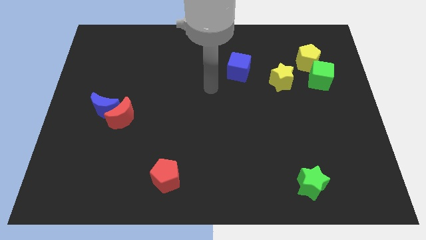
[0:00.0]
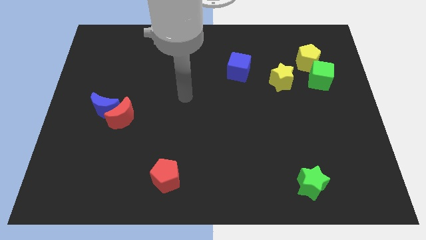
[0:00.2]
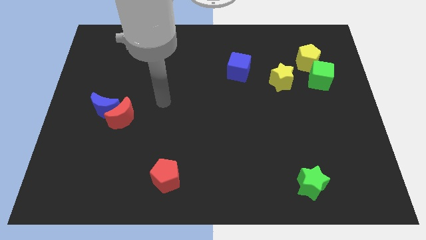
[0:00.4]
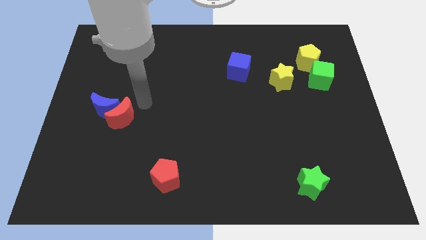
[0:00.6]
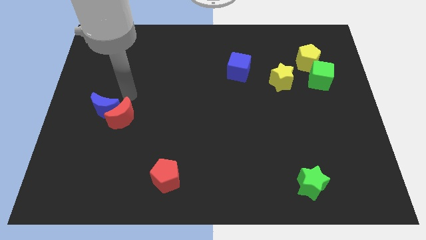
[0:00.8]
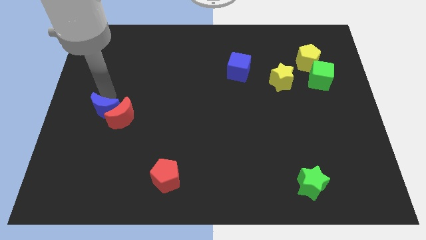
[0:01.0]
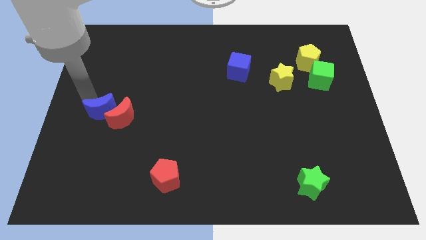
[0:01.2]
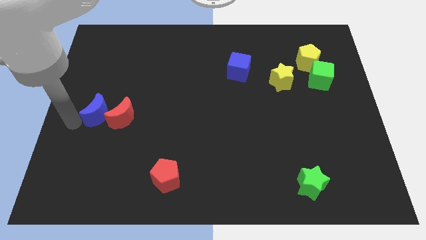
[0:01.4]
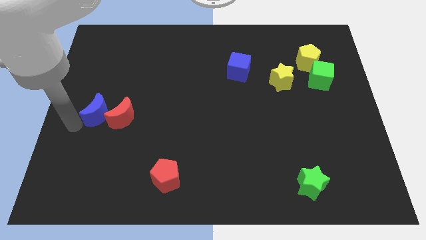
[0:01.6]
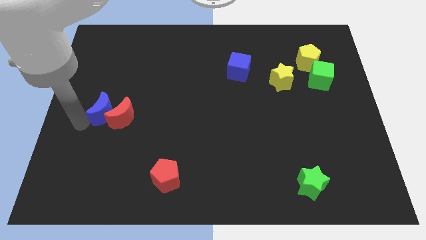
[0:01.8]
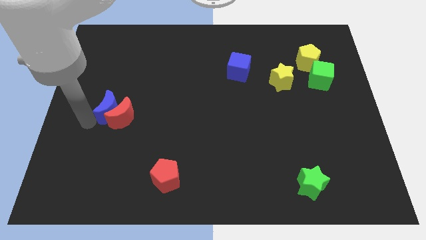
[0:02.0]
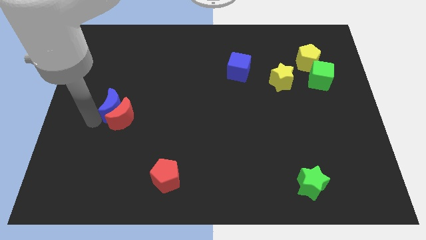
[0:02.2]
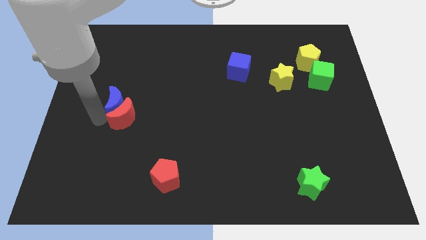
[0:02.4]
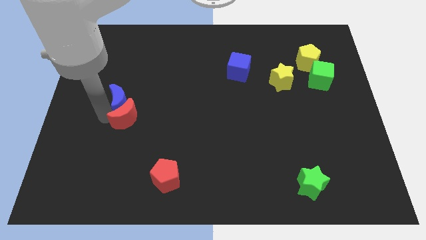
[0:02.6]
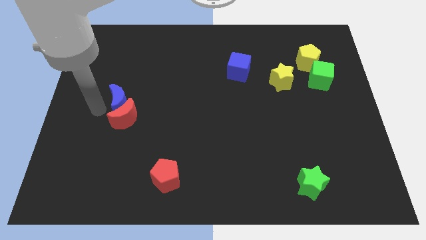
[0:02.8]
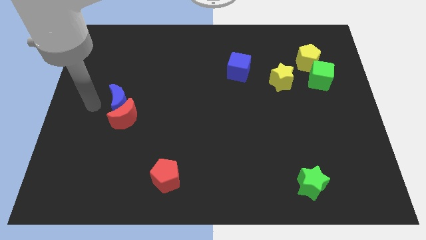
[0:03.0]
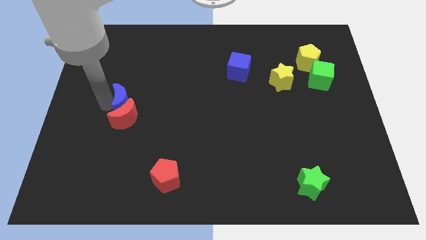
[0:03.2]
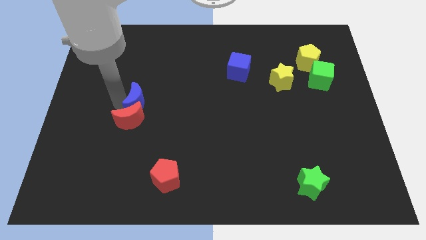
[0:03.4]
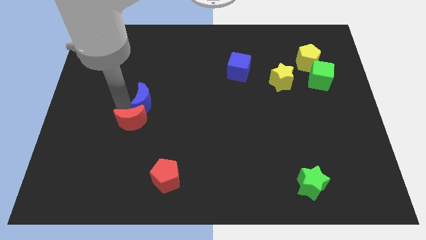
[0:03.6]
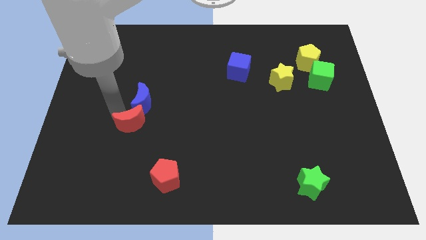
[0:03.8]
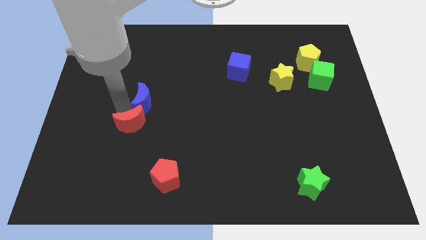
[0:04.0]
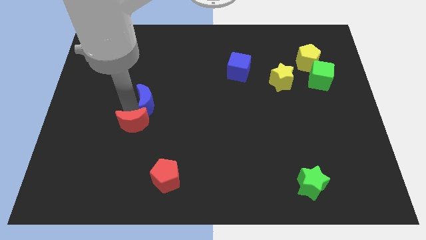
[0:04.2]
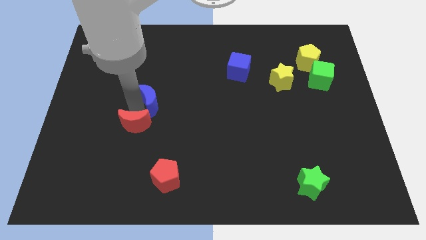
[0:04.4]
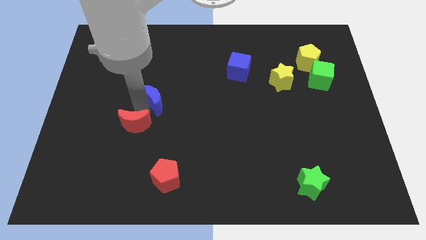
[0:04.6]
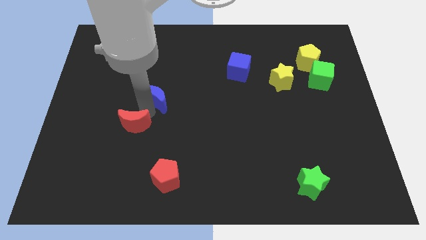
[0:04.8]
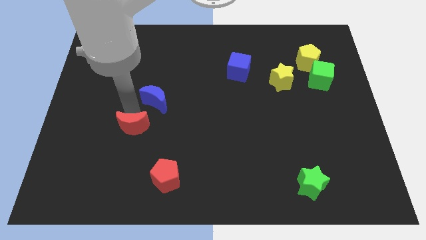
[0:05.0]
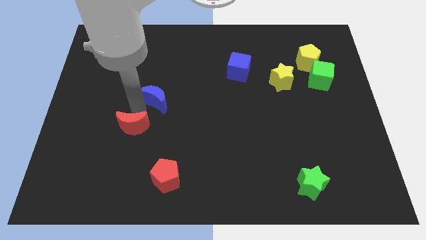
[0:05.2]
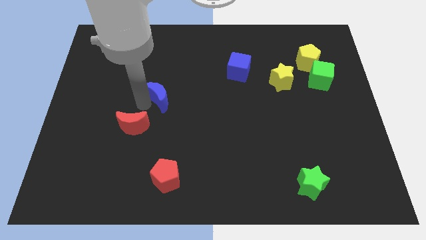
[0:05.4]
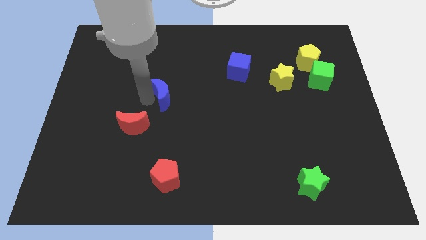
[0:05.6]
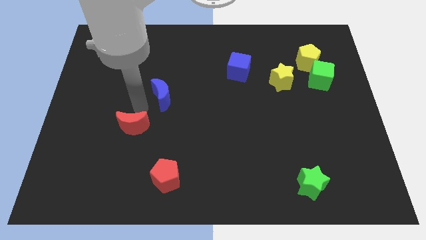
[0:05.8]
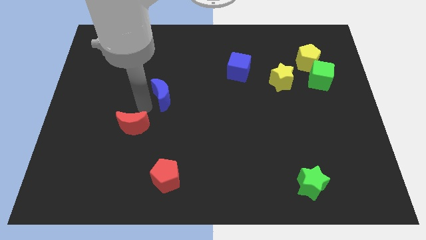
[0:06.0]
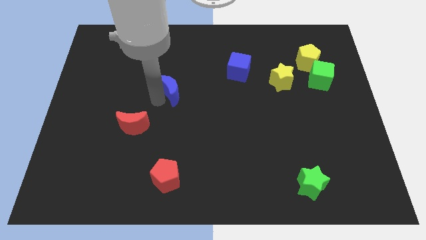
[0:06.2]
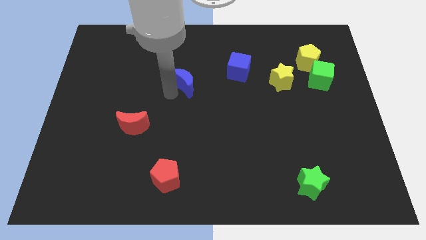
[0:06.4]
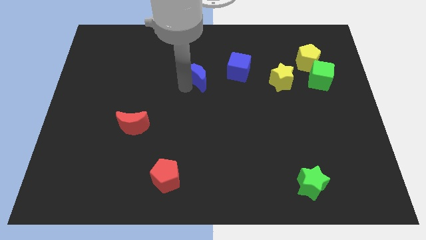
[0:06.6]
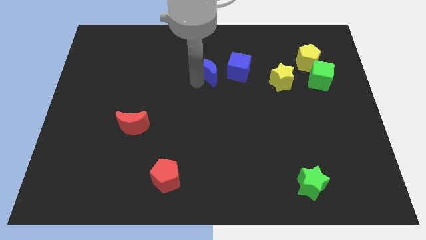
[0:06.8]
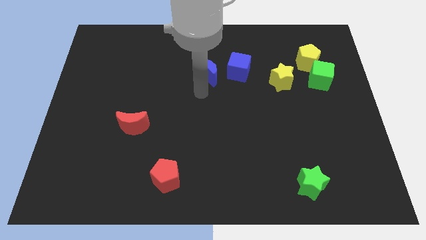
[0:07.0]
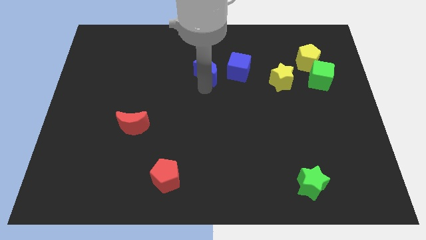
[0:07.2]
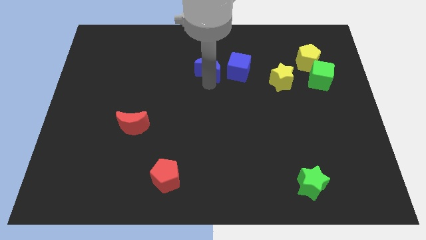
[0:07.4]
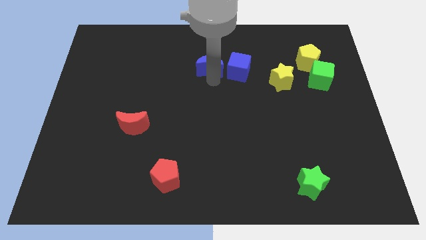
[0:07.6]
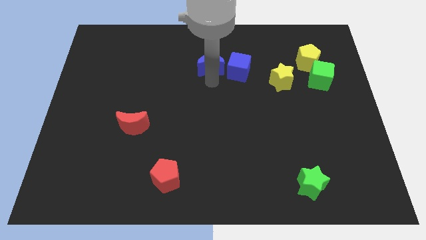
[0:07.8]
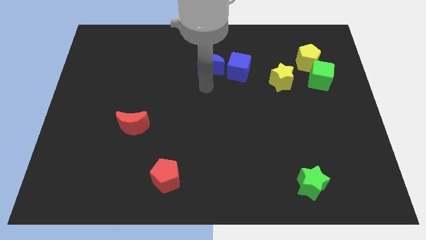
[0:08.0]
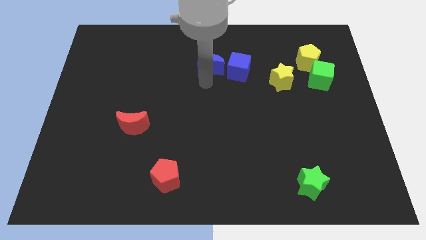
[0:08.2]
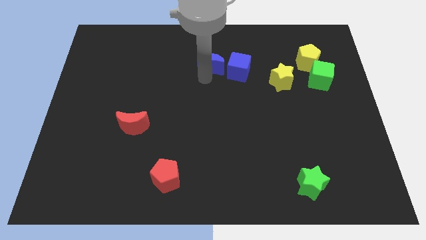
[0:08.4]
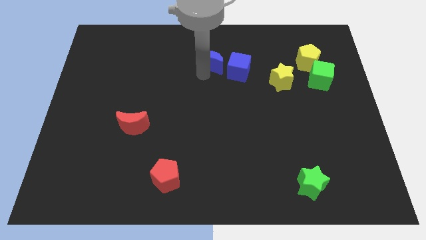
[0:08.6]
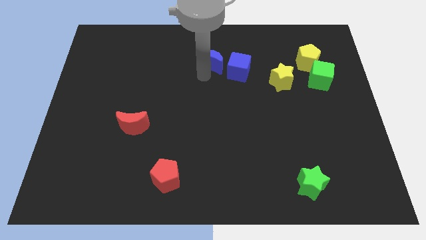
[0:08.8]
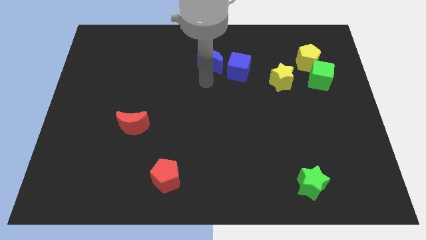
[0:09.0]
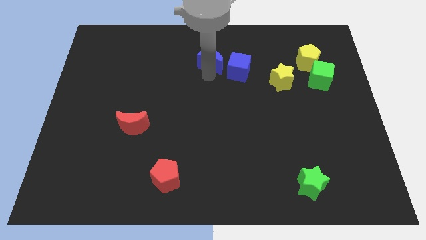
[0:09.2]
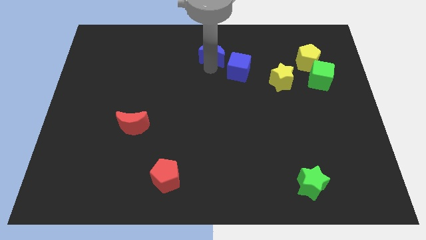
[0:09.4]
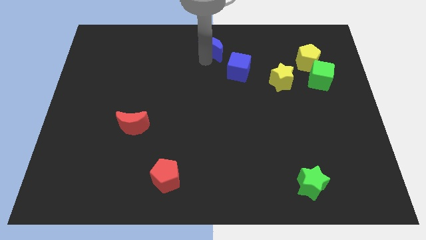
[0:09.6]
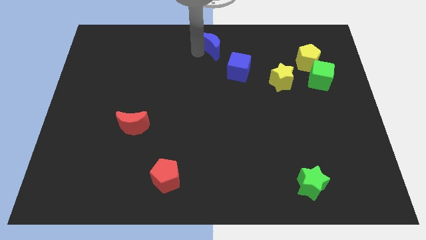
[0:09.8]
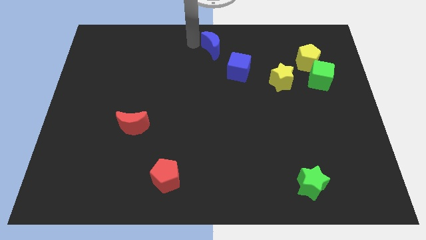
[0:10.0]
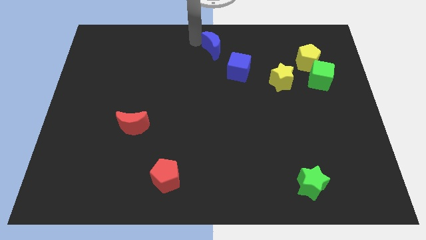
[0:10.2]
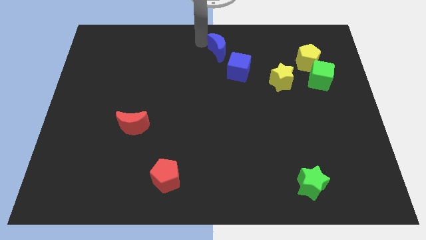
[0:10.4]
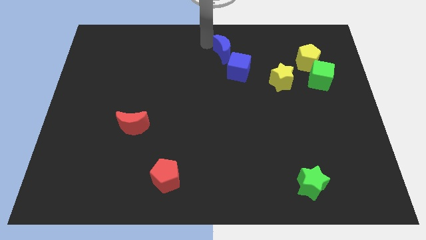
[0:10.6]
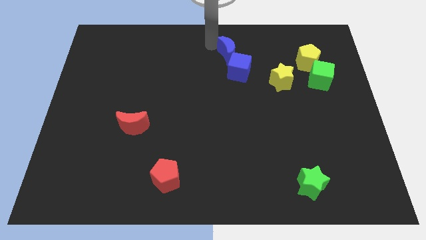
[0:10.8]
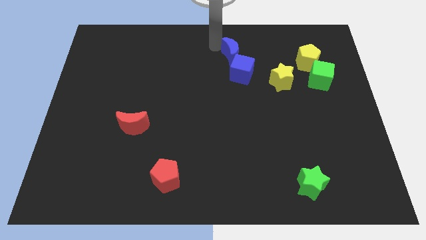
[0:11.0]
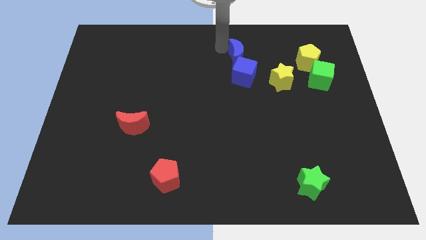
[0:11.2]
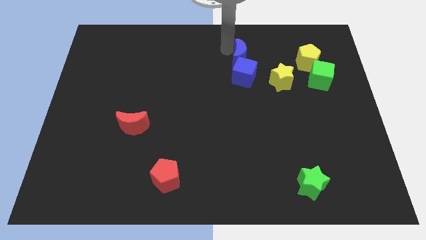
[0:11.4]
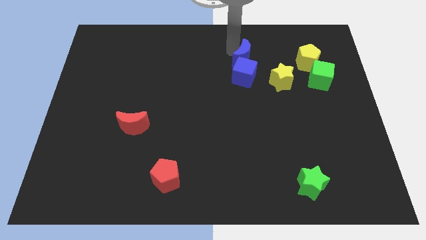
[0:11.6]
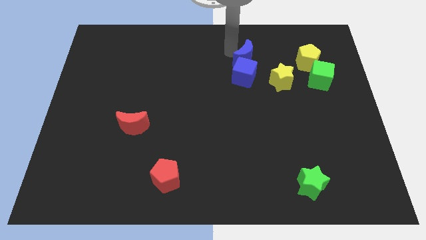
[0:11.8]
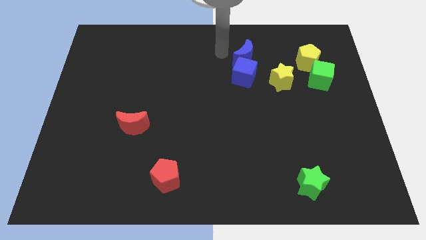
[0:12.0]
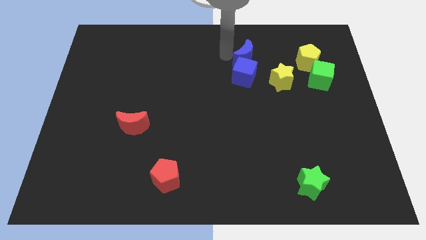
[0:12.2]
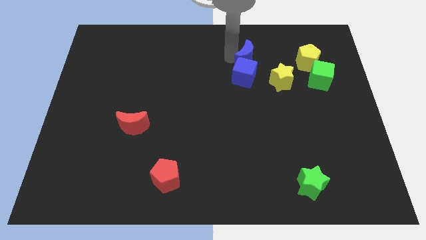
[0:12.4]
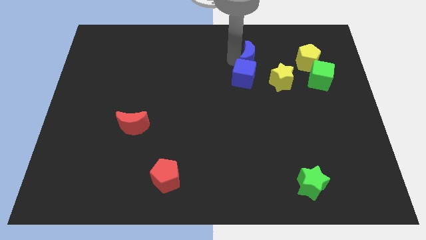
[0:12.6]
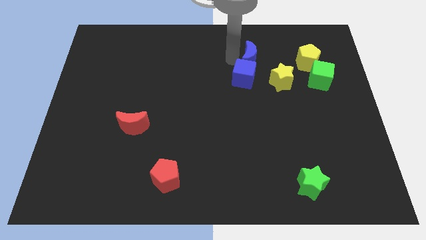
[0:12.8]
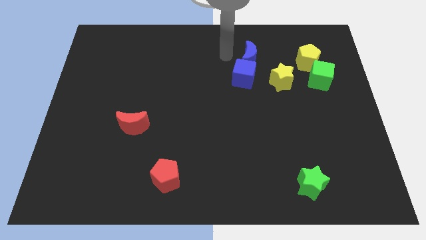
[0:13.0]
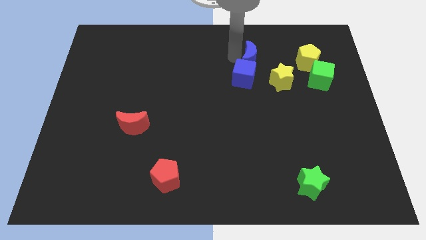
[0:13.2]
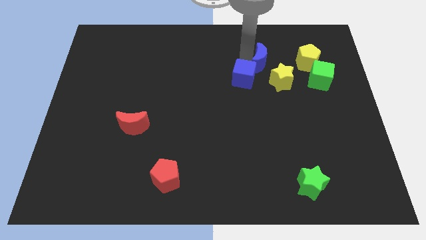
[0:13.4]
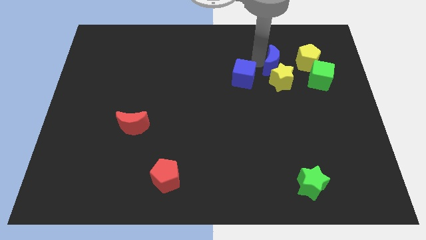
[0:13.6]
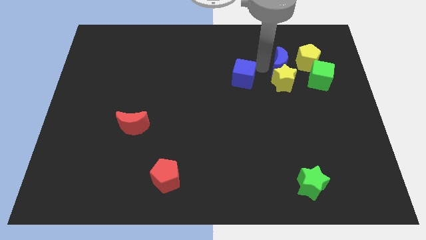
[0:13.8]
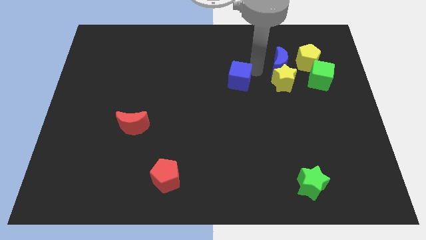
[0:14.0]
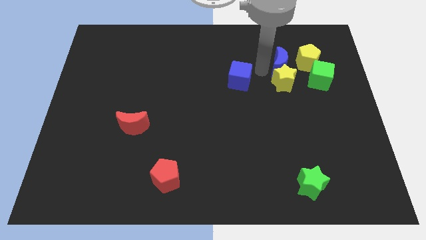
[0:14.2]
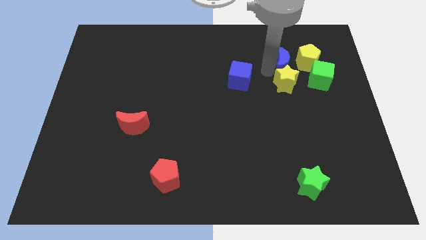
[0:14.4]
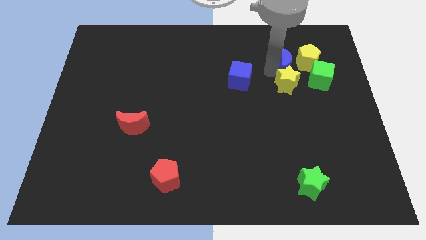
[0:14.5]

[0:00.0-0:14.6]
put the blue moon to the yellow pentagon

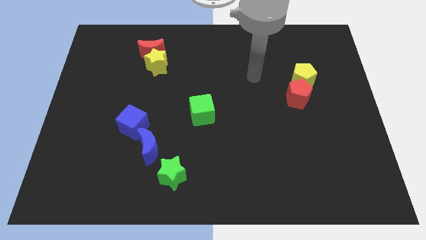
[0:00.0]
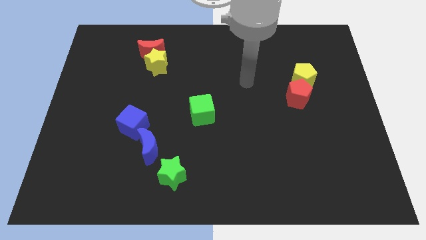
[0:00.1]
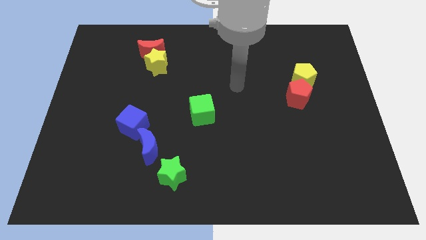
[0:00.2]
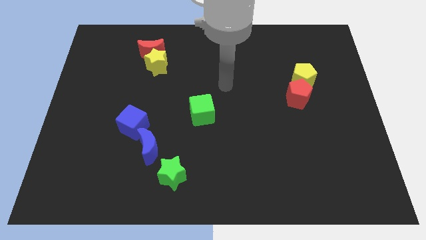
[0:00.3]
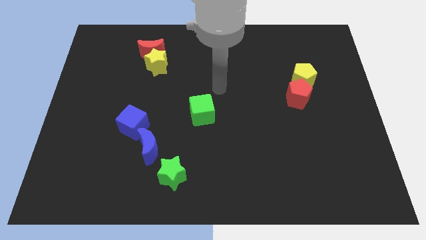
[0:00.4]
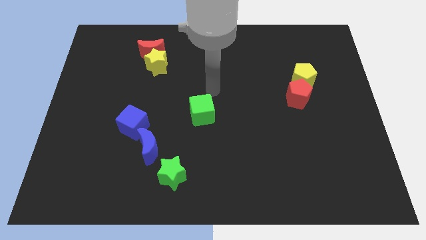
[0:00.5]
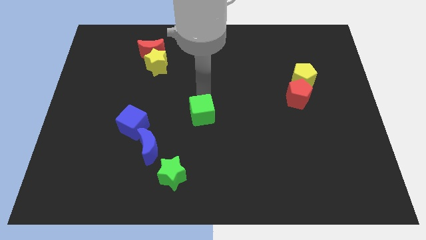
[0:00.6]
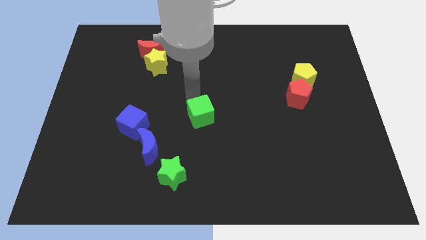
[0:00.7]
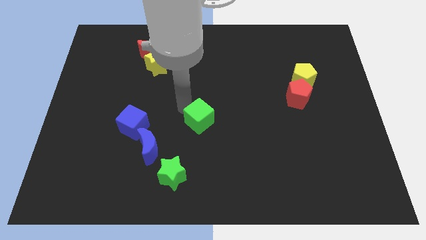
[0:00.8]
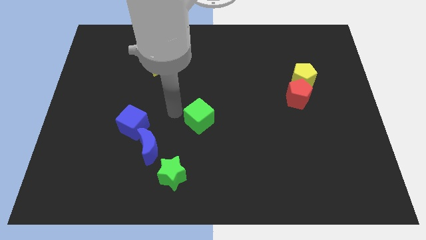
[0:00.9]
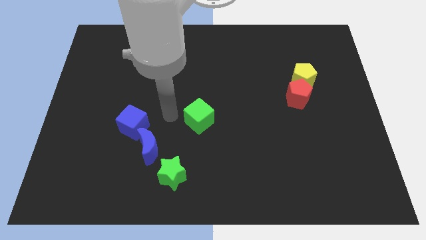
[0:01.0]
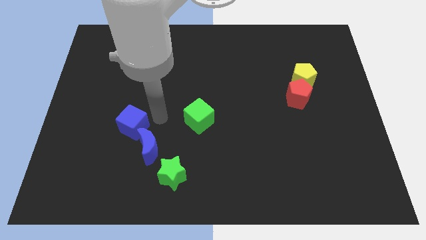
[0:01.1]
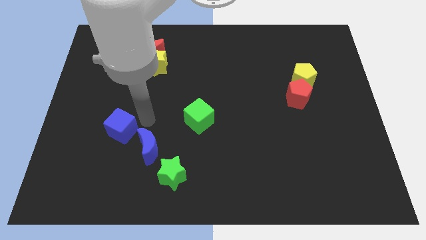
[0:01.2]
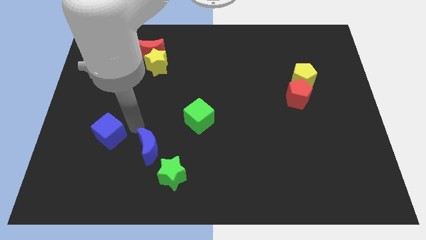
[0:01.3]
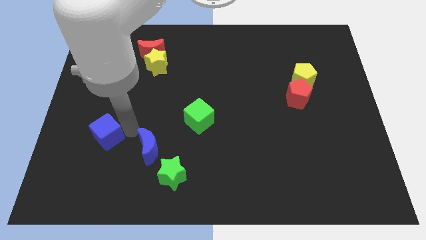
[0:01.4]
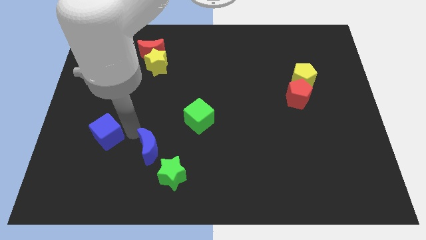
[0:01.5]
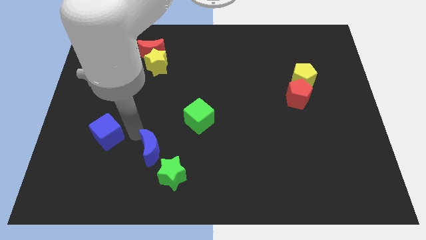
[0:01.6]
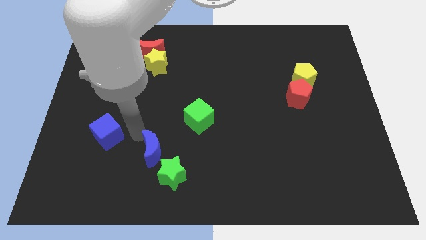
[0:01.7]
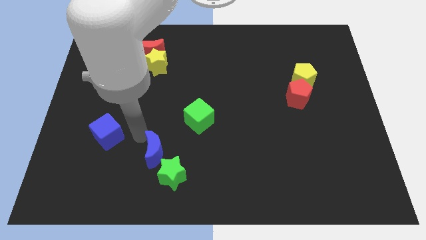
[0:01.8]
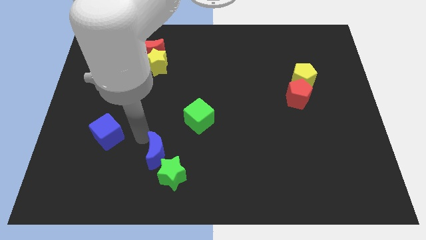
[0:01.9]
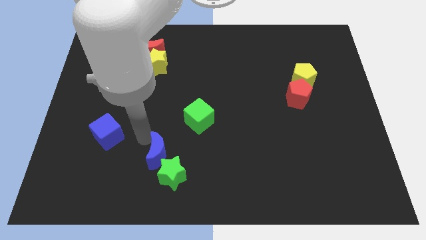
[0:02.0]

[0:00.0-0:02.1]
move the blue moon close to the green star
